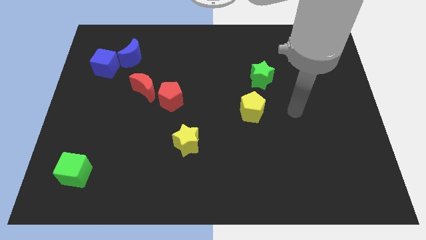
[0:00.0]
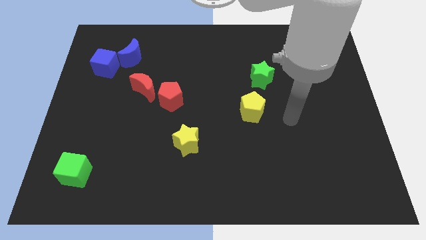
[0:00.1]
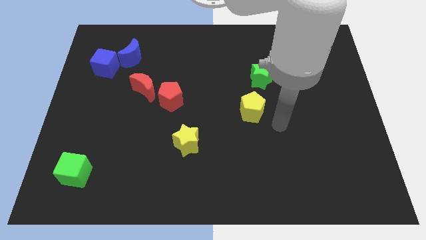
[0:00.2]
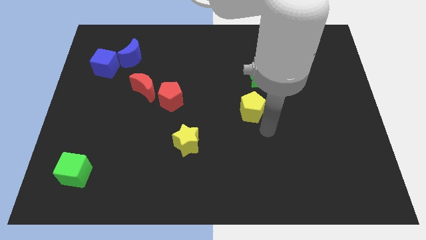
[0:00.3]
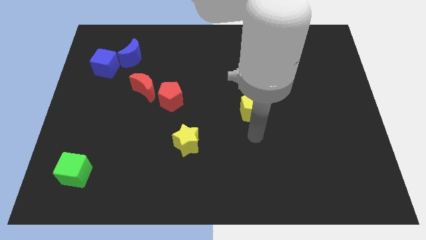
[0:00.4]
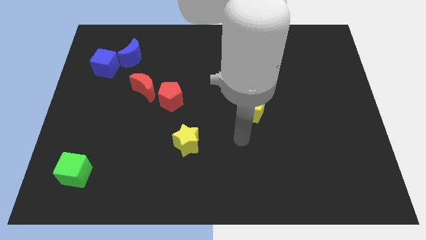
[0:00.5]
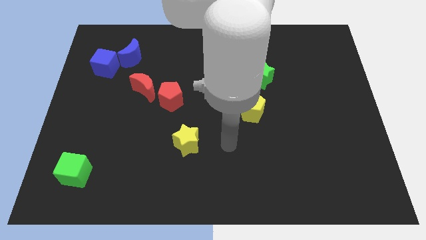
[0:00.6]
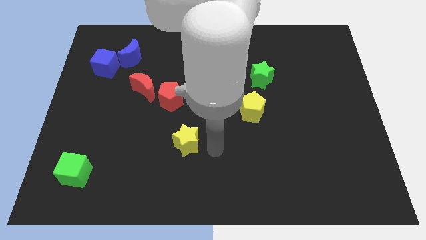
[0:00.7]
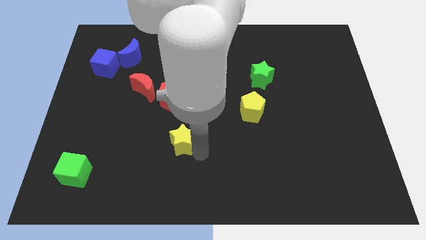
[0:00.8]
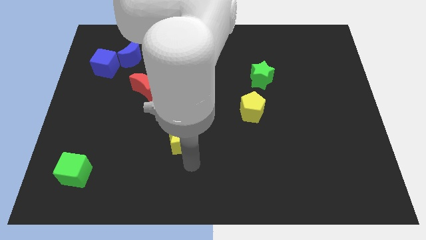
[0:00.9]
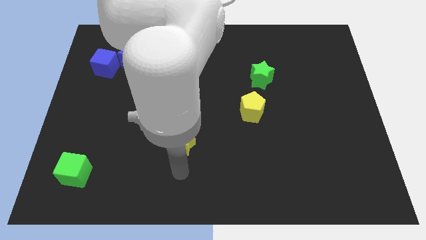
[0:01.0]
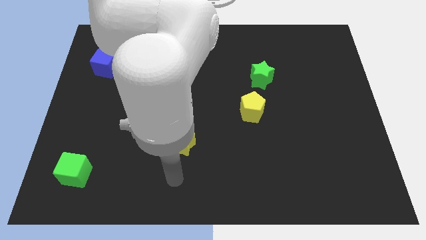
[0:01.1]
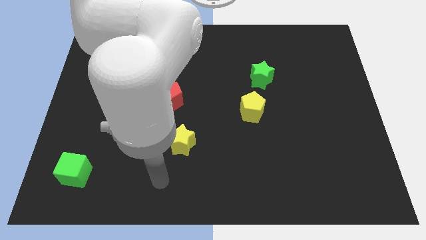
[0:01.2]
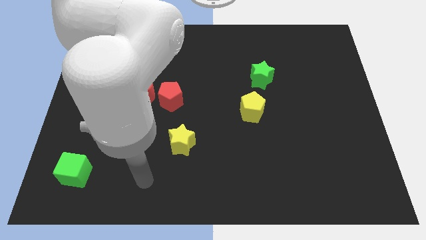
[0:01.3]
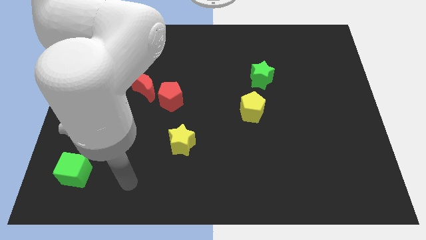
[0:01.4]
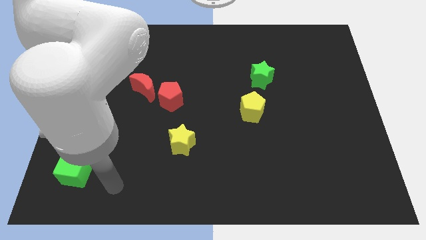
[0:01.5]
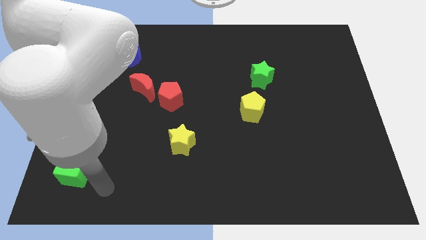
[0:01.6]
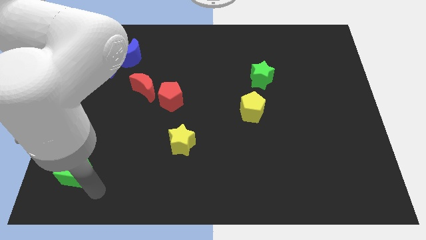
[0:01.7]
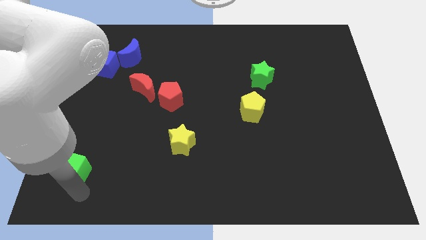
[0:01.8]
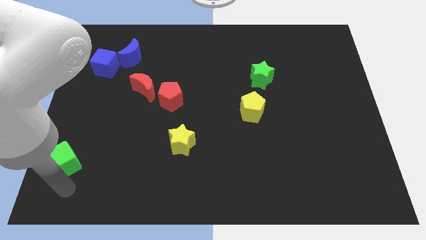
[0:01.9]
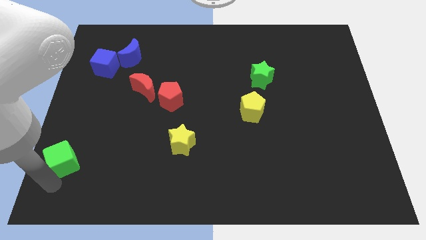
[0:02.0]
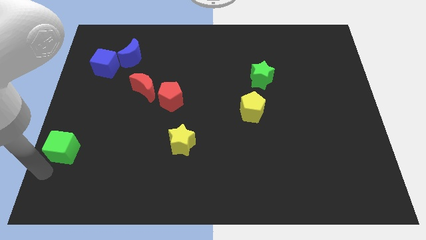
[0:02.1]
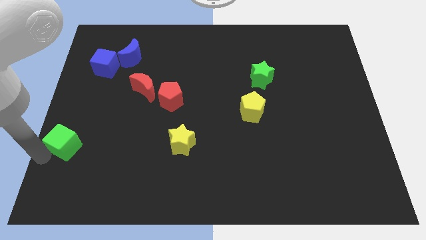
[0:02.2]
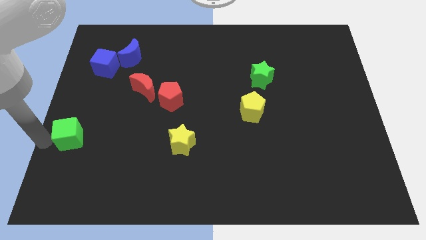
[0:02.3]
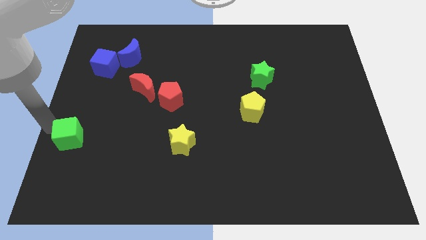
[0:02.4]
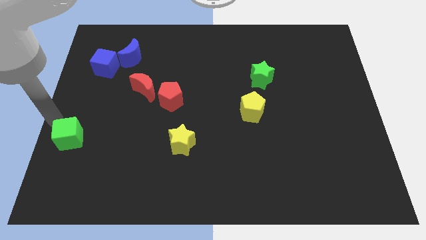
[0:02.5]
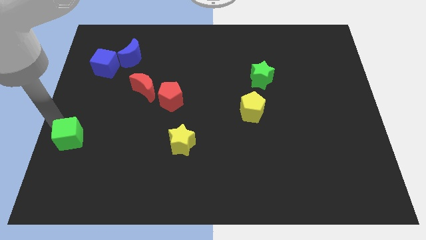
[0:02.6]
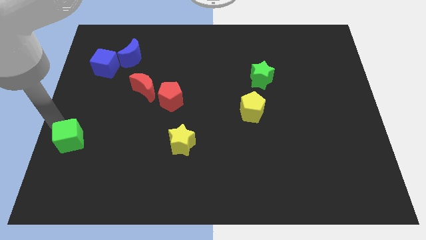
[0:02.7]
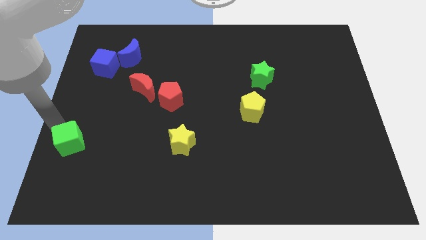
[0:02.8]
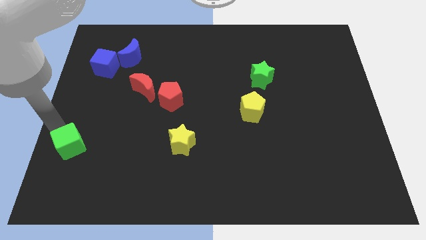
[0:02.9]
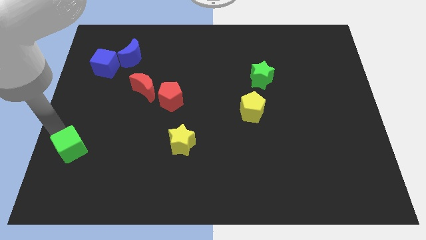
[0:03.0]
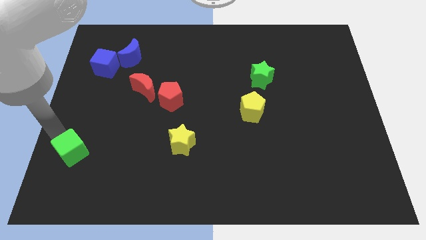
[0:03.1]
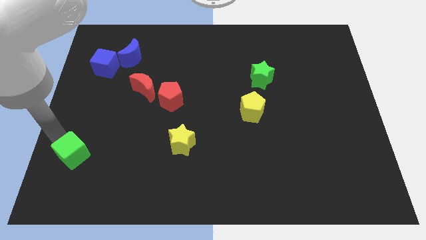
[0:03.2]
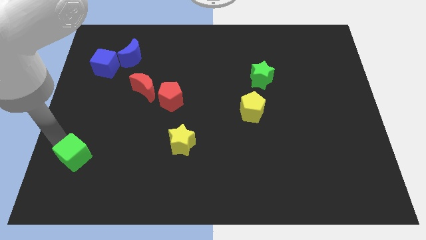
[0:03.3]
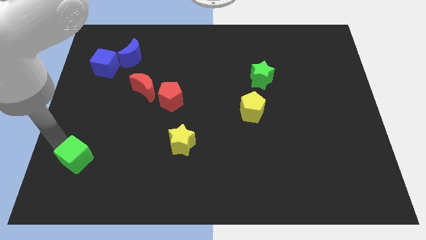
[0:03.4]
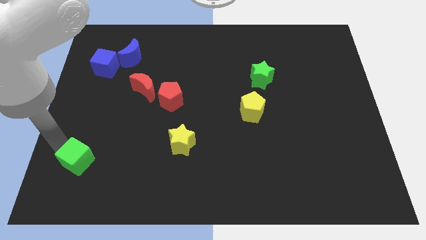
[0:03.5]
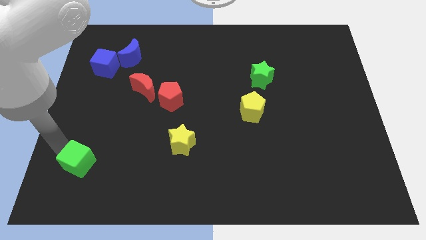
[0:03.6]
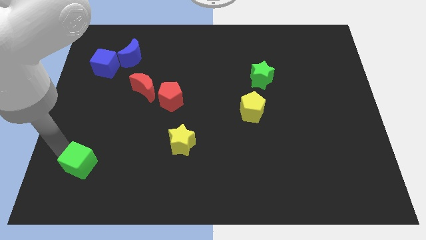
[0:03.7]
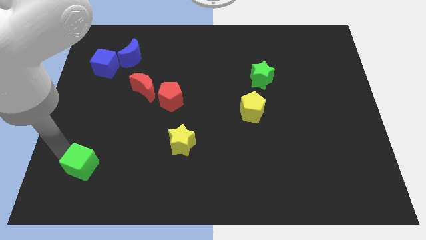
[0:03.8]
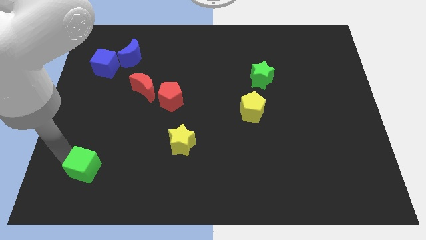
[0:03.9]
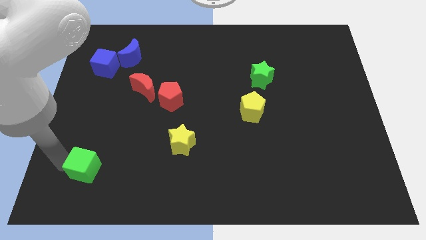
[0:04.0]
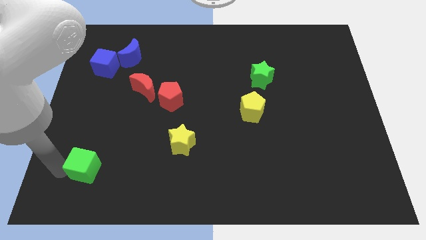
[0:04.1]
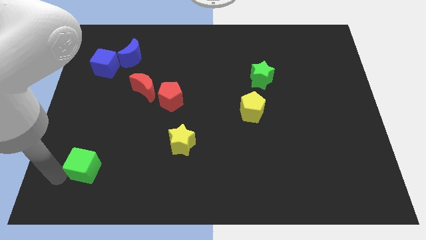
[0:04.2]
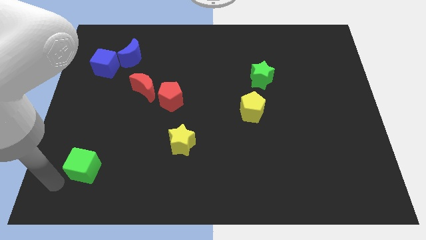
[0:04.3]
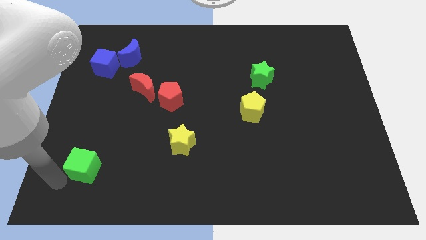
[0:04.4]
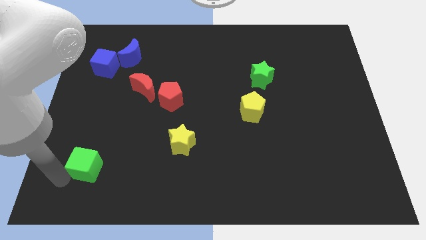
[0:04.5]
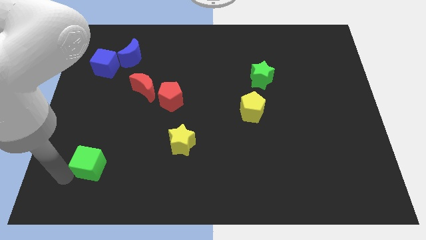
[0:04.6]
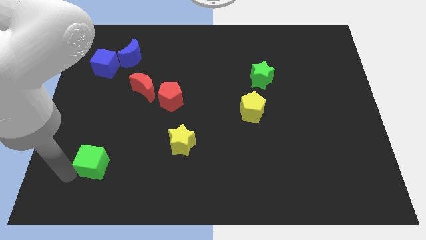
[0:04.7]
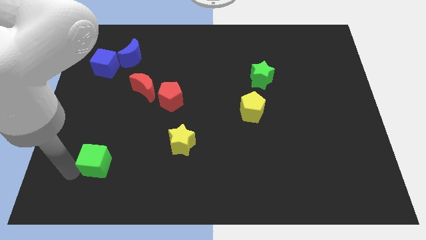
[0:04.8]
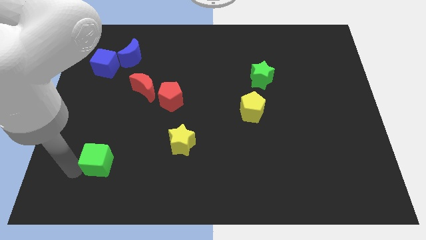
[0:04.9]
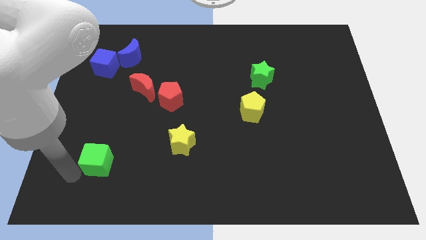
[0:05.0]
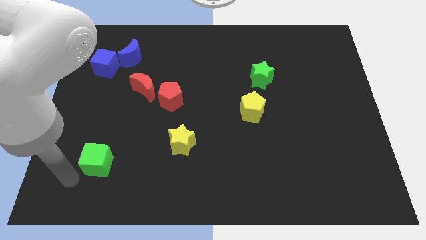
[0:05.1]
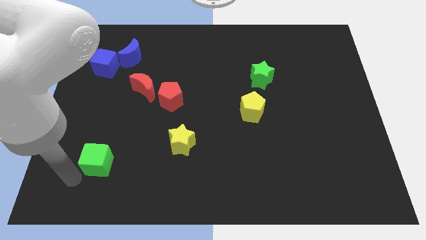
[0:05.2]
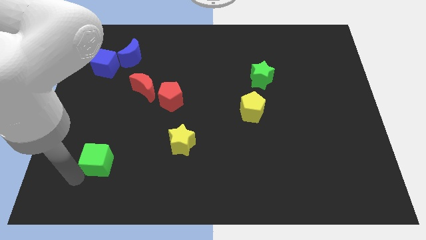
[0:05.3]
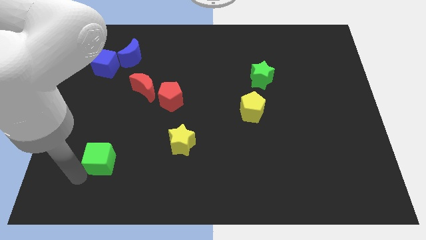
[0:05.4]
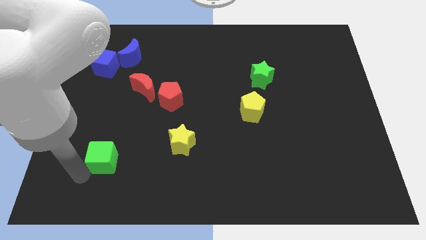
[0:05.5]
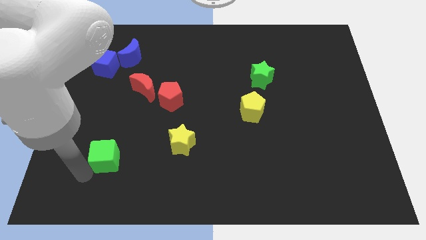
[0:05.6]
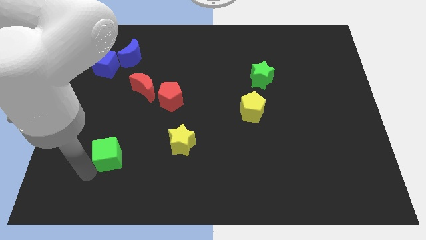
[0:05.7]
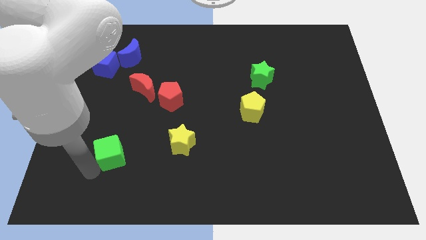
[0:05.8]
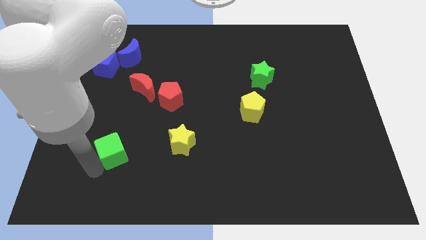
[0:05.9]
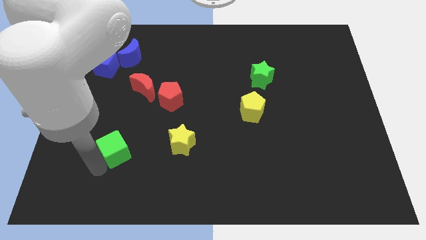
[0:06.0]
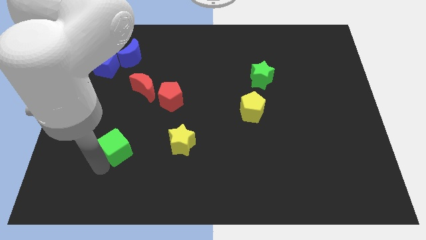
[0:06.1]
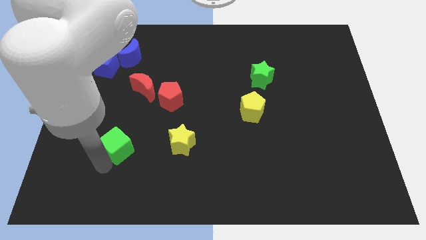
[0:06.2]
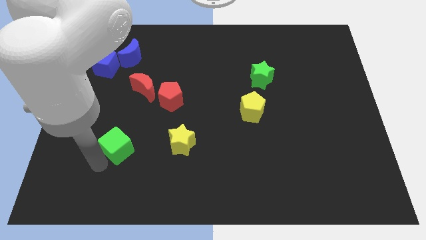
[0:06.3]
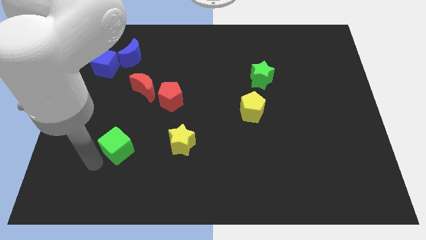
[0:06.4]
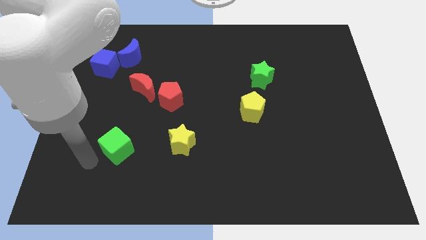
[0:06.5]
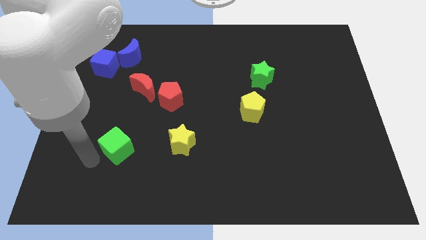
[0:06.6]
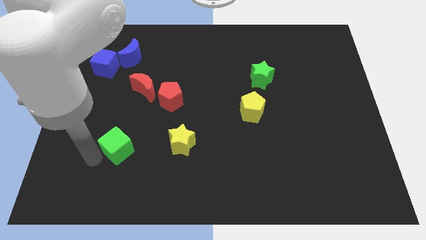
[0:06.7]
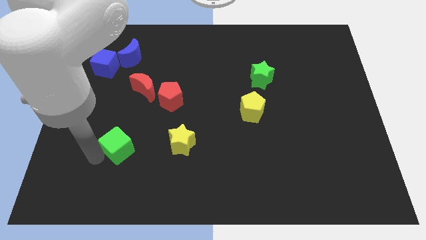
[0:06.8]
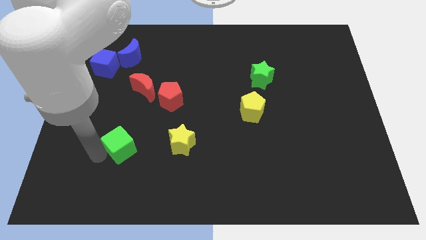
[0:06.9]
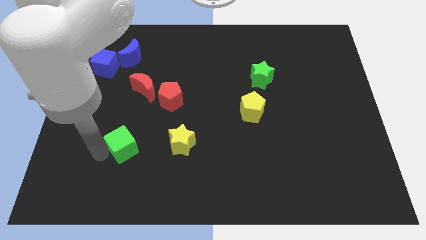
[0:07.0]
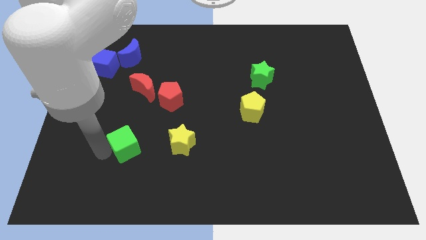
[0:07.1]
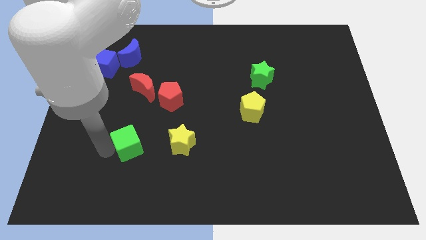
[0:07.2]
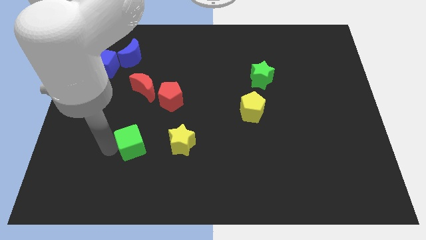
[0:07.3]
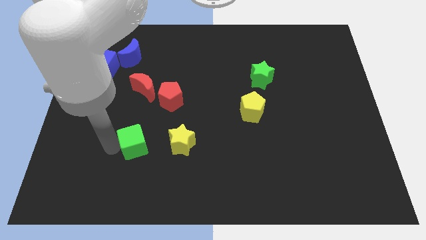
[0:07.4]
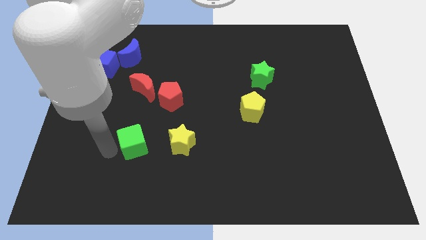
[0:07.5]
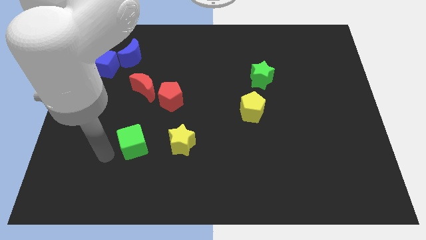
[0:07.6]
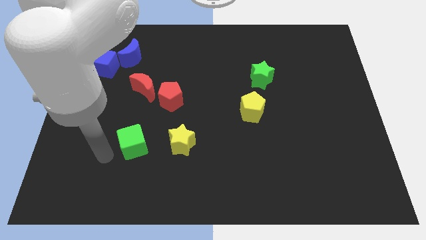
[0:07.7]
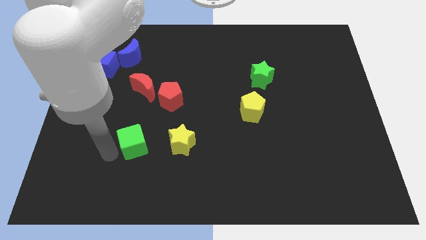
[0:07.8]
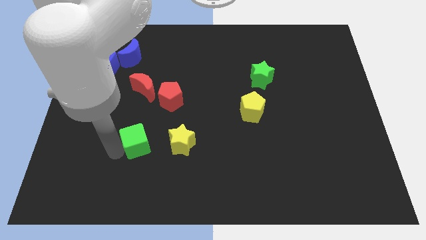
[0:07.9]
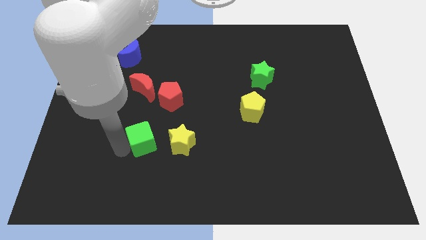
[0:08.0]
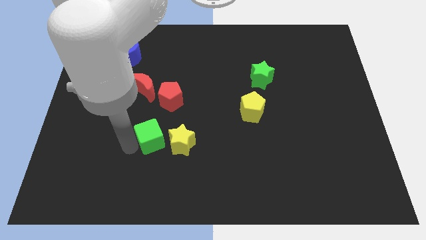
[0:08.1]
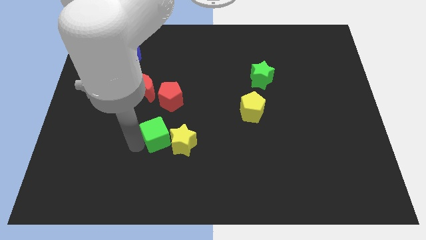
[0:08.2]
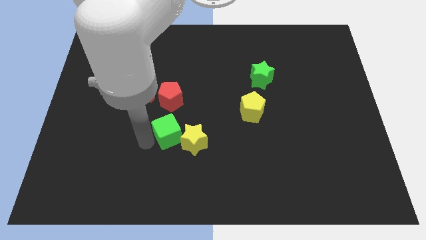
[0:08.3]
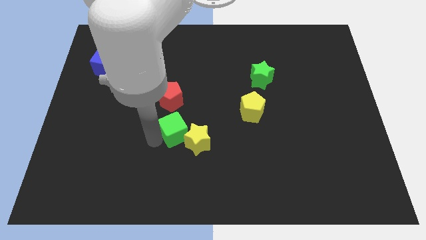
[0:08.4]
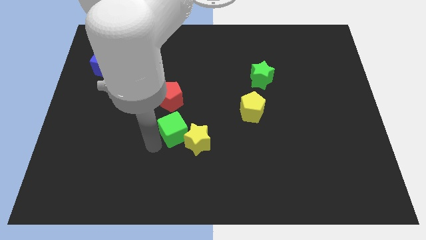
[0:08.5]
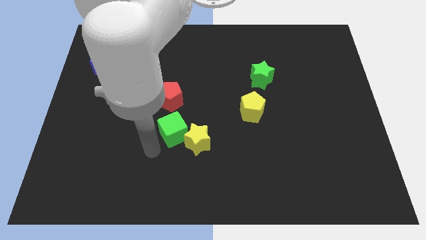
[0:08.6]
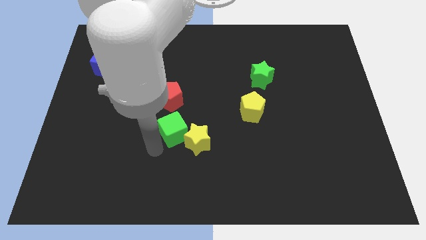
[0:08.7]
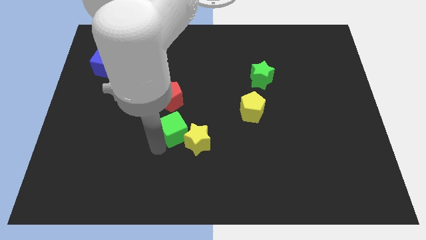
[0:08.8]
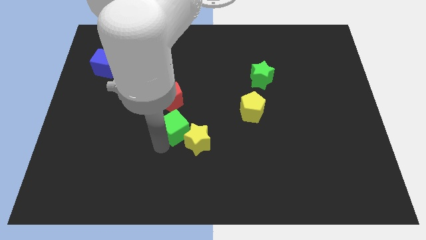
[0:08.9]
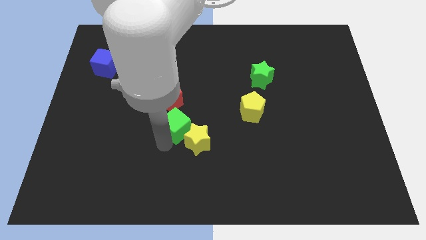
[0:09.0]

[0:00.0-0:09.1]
move the green cube diagonally down and to the right of the red pentagon
